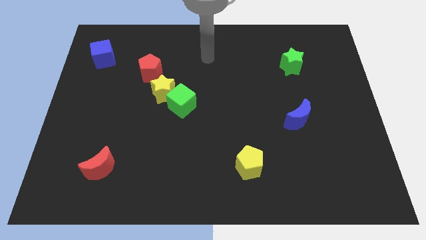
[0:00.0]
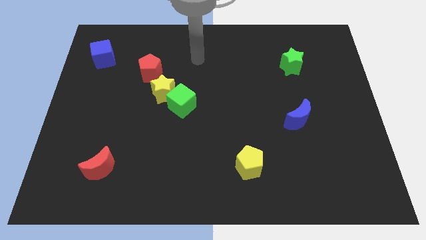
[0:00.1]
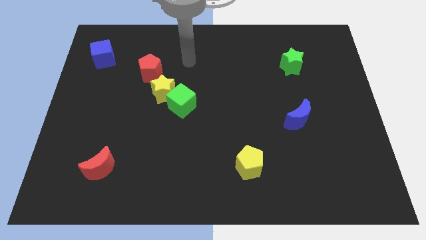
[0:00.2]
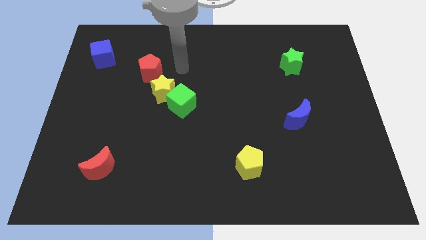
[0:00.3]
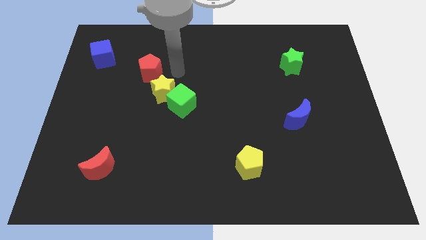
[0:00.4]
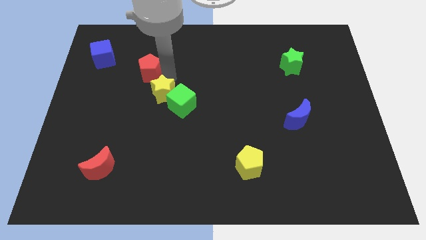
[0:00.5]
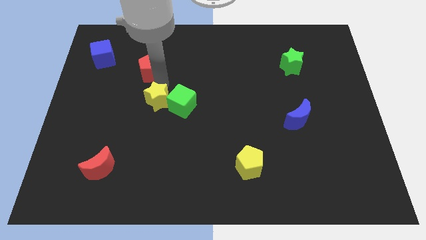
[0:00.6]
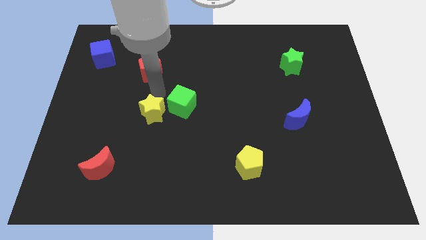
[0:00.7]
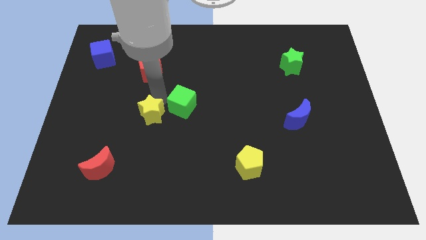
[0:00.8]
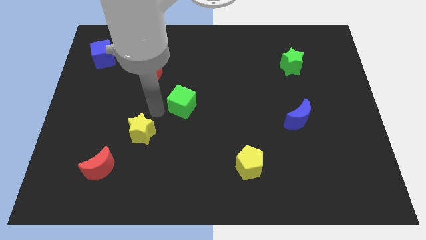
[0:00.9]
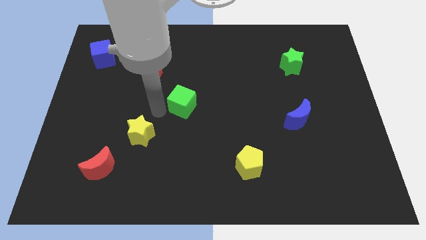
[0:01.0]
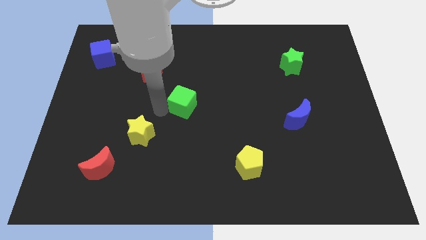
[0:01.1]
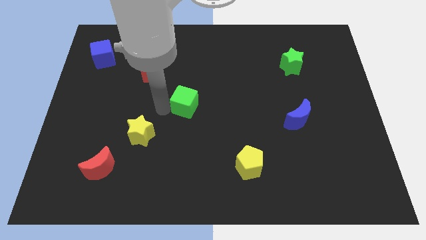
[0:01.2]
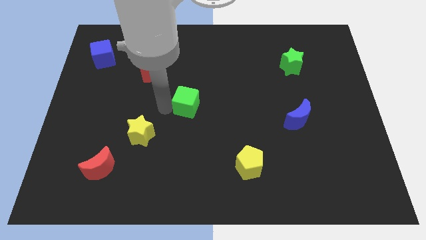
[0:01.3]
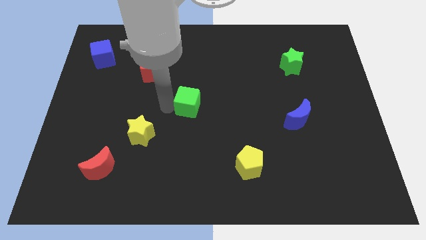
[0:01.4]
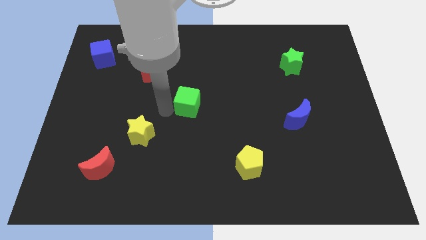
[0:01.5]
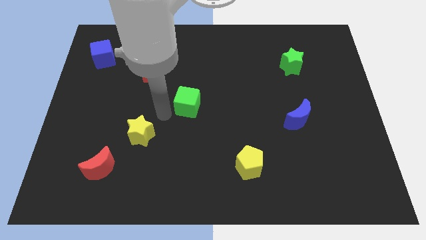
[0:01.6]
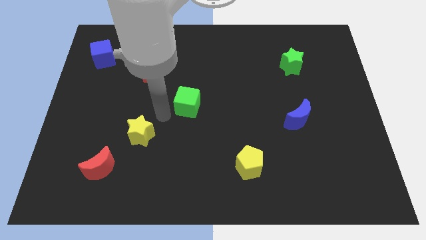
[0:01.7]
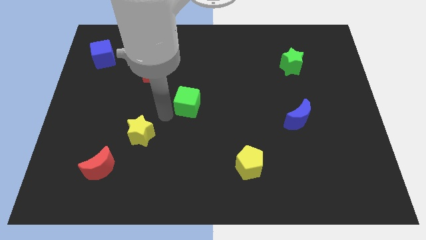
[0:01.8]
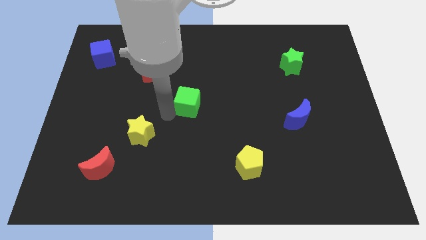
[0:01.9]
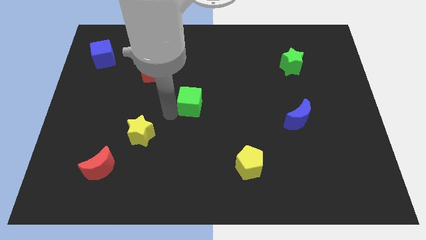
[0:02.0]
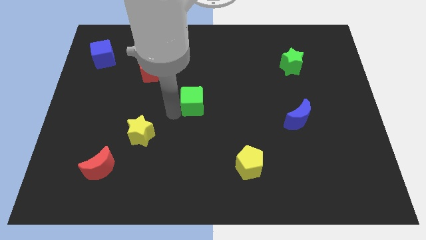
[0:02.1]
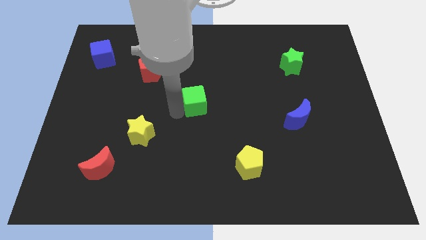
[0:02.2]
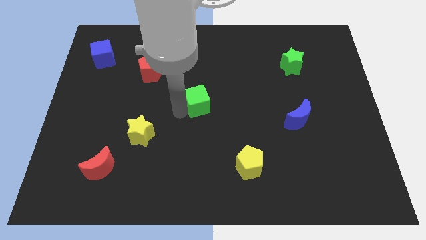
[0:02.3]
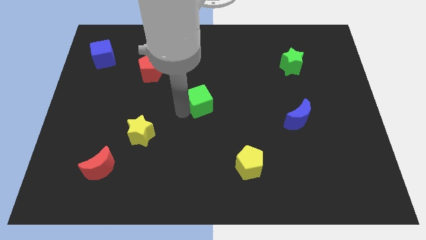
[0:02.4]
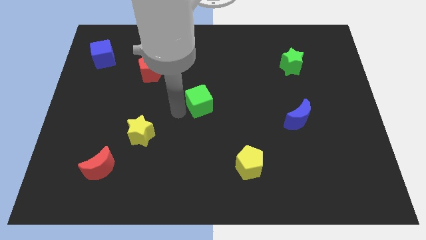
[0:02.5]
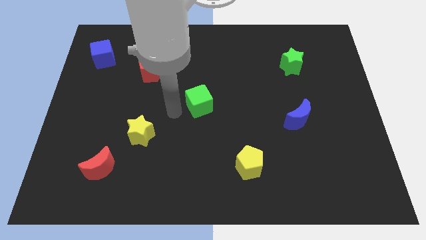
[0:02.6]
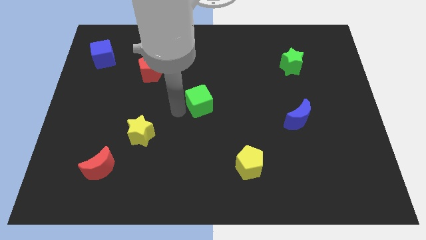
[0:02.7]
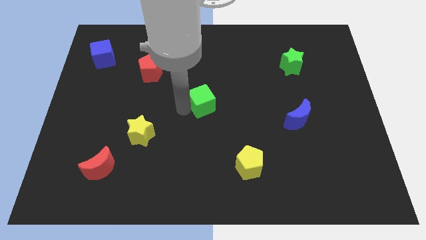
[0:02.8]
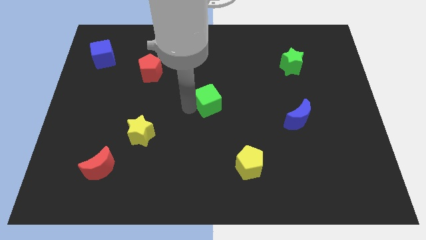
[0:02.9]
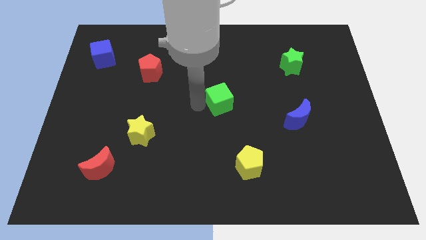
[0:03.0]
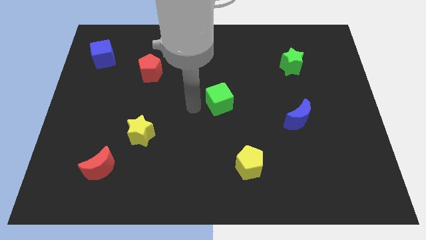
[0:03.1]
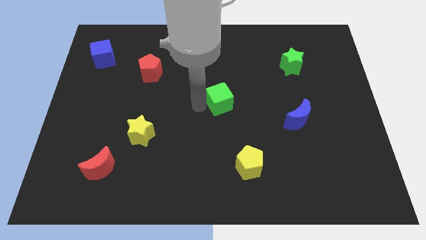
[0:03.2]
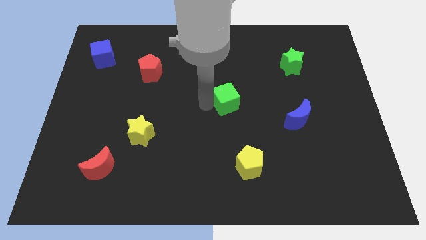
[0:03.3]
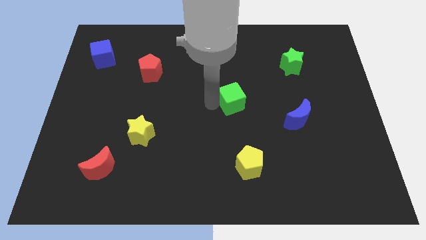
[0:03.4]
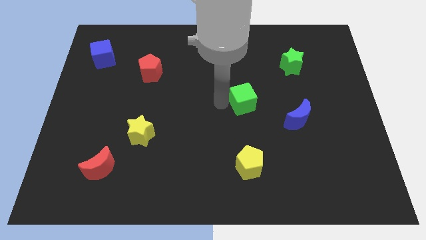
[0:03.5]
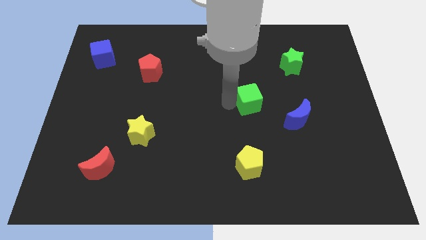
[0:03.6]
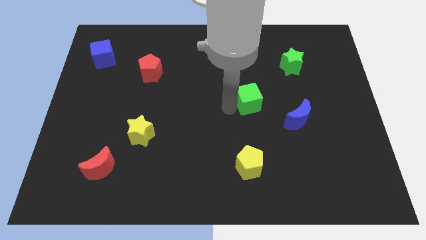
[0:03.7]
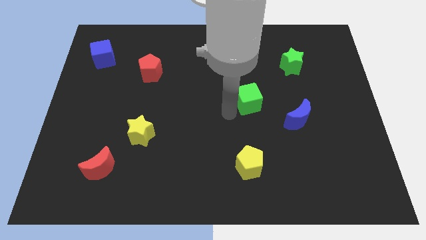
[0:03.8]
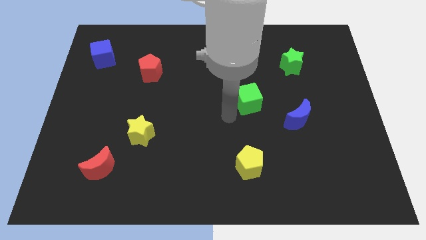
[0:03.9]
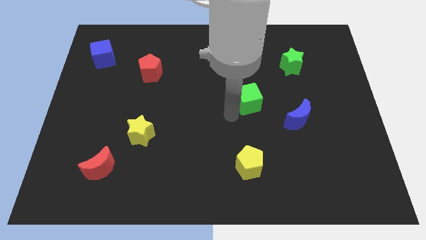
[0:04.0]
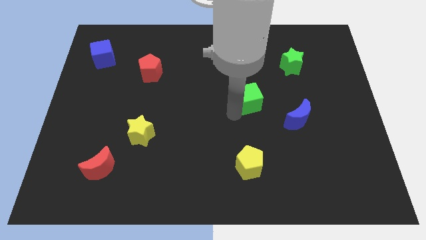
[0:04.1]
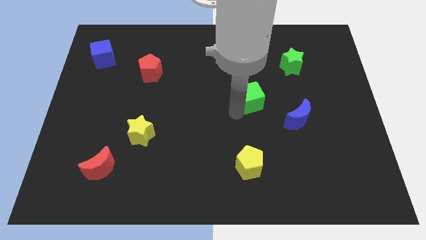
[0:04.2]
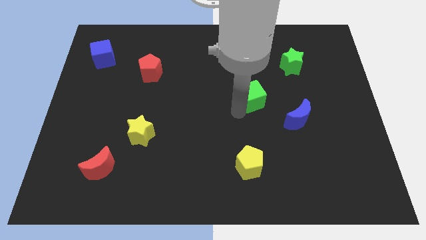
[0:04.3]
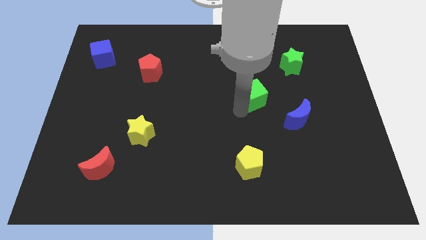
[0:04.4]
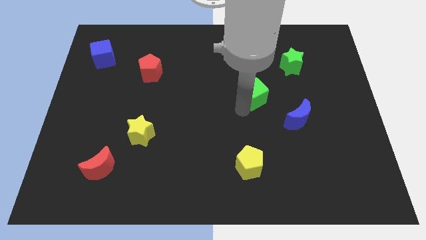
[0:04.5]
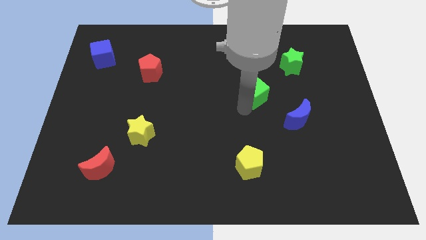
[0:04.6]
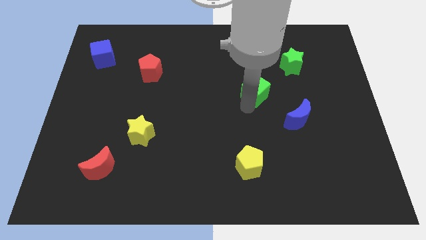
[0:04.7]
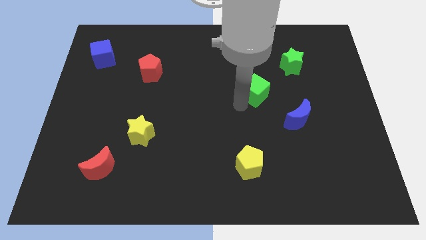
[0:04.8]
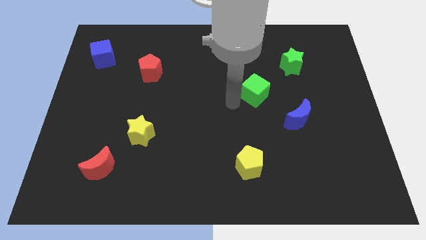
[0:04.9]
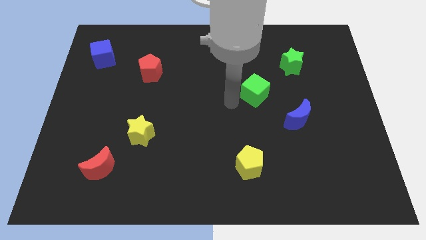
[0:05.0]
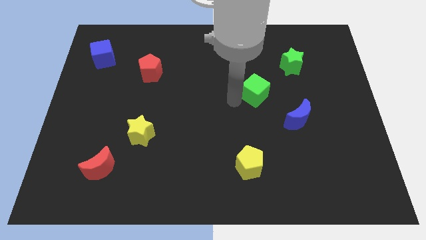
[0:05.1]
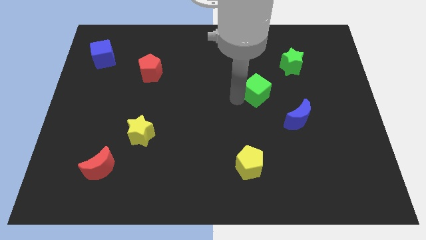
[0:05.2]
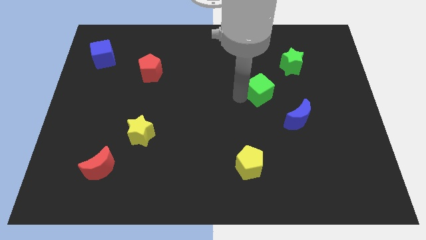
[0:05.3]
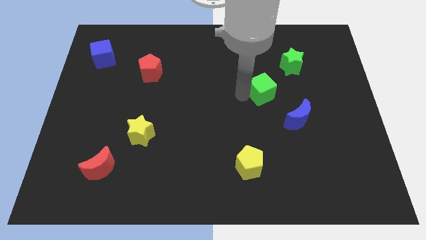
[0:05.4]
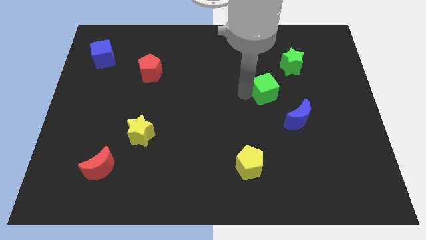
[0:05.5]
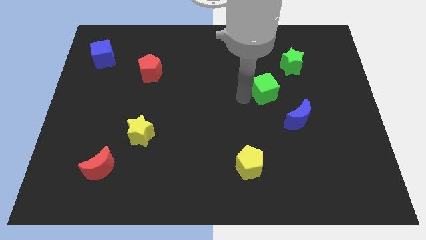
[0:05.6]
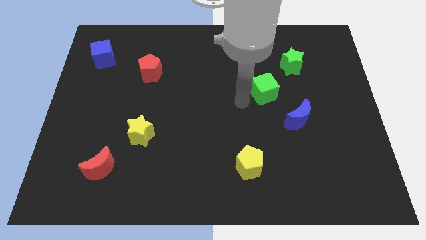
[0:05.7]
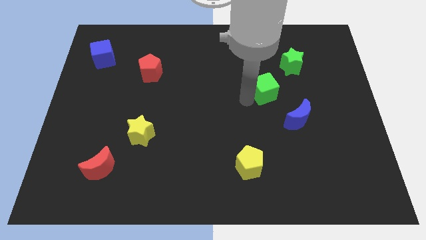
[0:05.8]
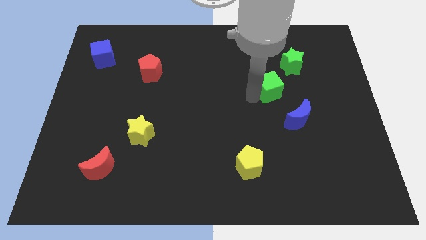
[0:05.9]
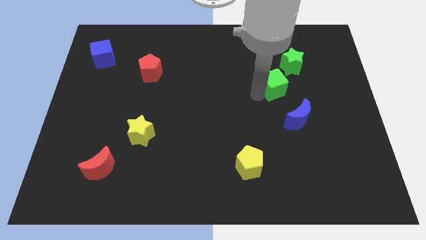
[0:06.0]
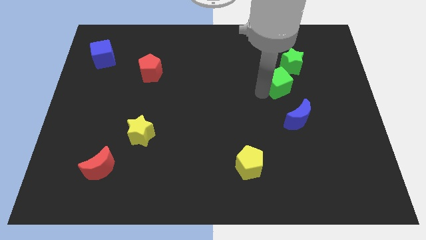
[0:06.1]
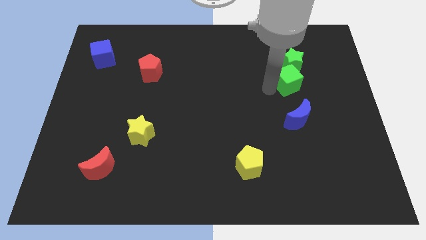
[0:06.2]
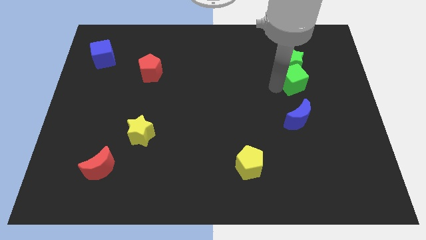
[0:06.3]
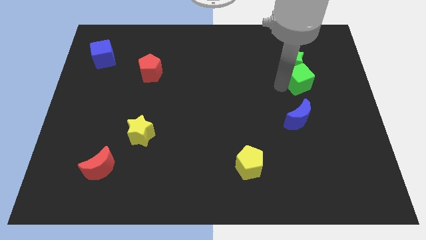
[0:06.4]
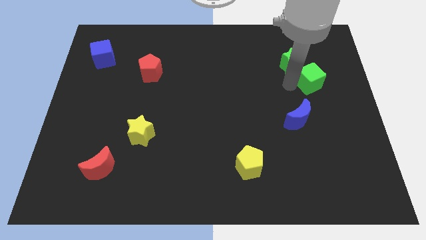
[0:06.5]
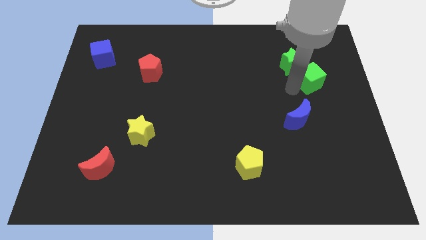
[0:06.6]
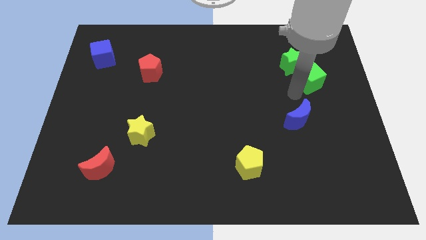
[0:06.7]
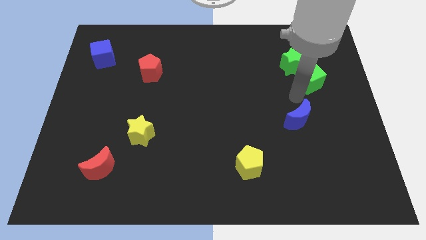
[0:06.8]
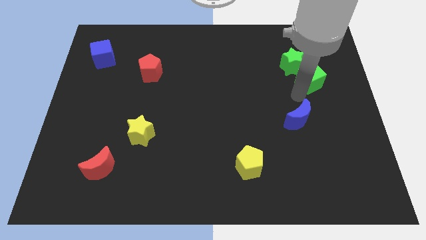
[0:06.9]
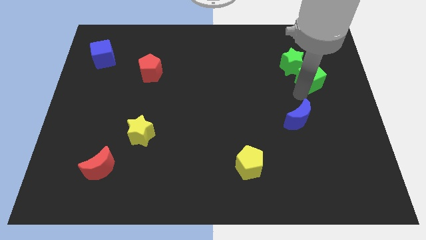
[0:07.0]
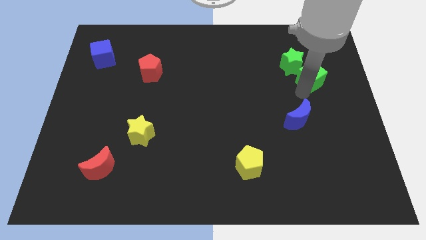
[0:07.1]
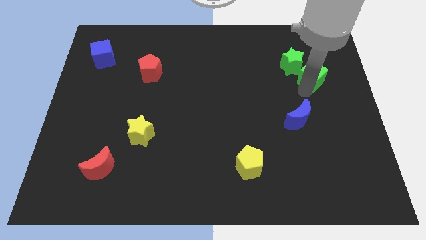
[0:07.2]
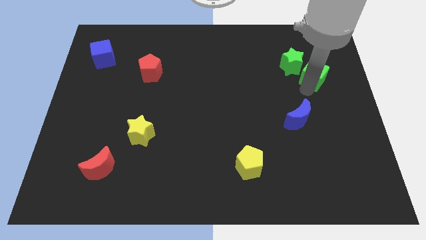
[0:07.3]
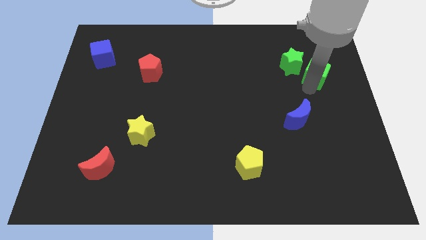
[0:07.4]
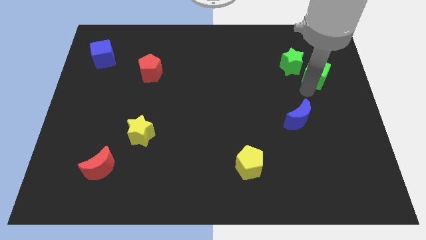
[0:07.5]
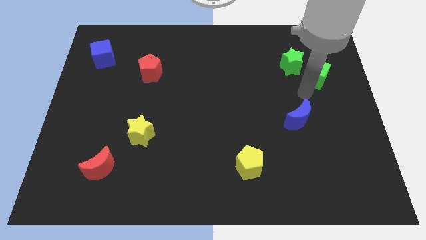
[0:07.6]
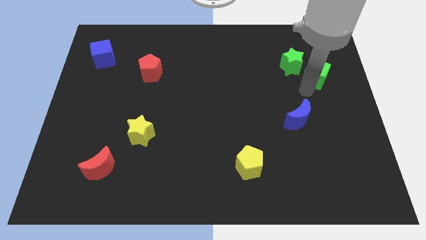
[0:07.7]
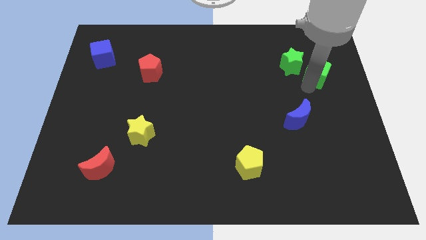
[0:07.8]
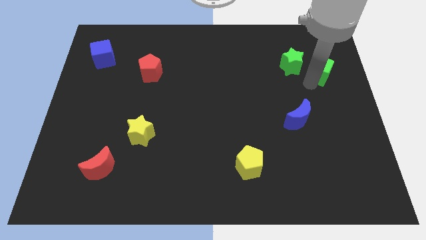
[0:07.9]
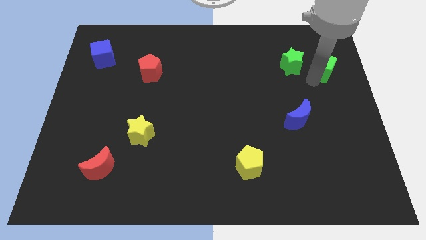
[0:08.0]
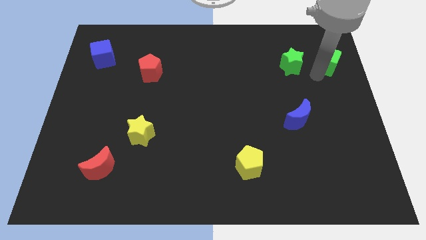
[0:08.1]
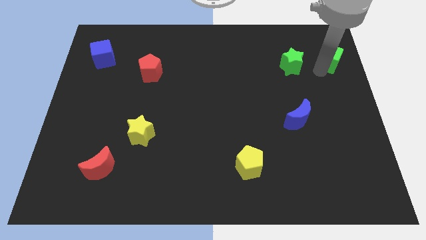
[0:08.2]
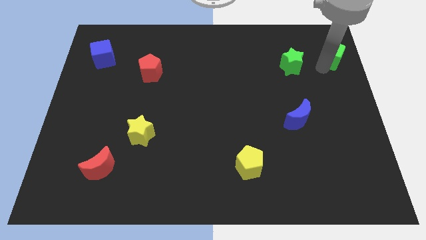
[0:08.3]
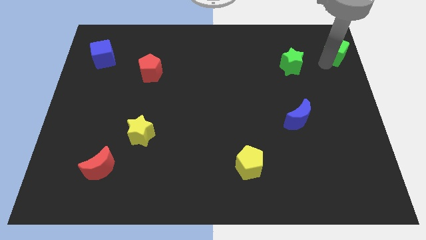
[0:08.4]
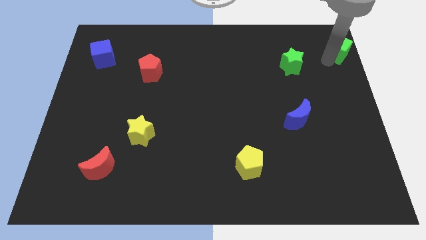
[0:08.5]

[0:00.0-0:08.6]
slide the green cube to the upper right corner
